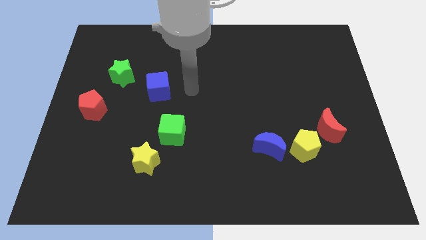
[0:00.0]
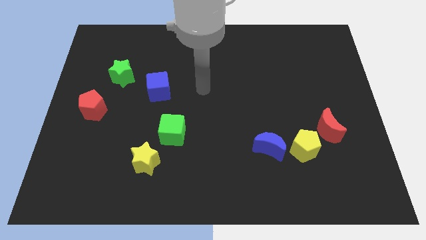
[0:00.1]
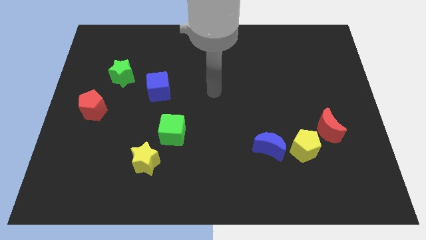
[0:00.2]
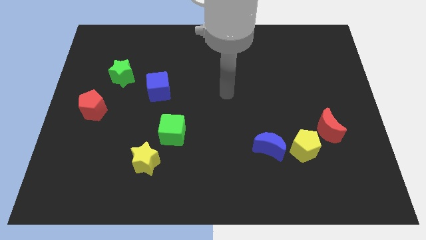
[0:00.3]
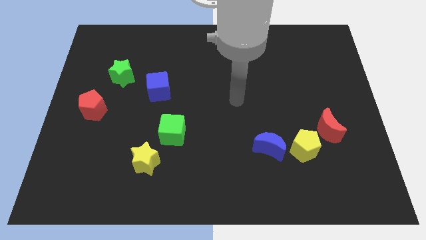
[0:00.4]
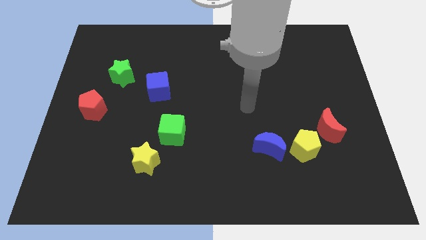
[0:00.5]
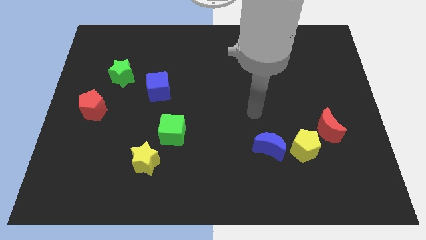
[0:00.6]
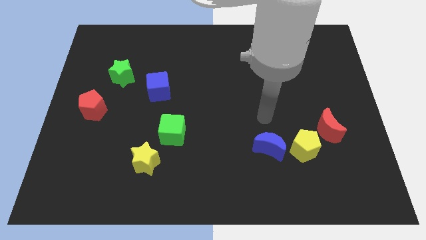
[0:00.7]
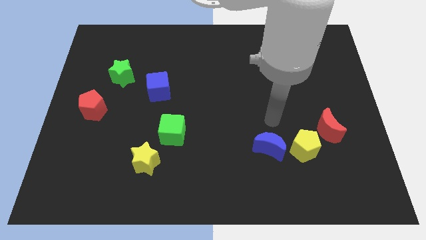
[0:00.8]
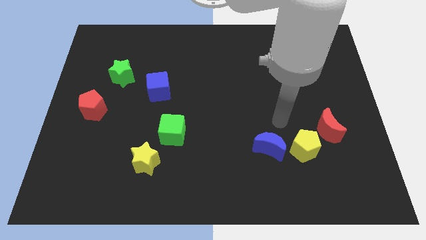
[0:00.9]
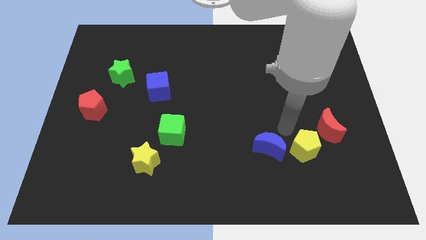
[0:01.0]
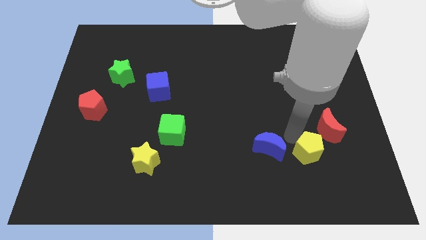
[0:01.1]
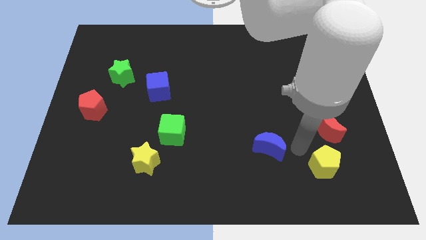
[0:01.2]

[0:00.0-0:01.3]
move the blue moon away from the yellow pentagon

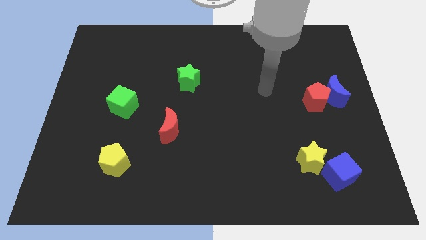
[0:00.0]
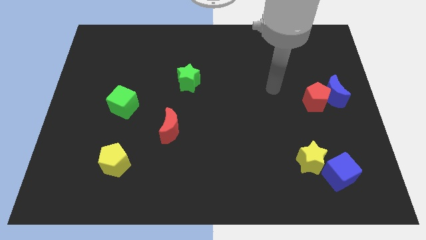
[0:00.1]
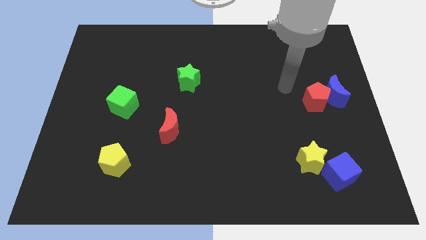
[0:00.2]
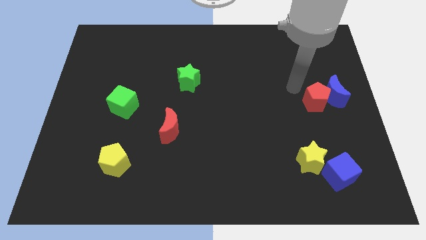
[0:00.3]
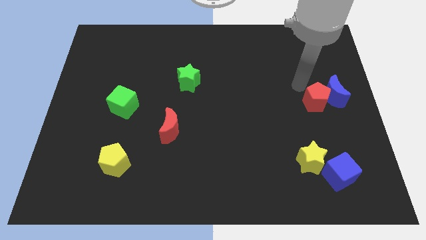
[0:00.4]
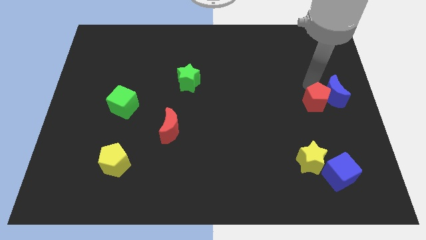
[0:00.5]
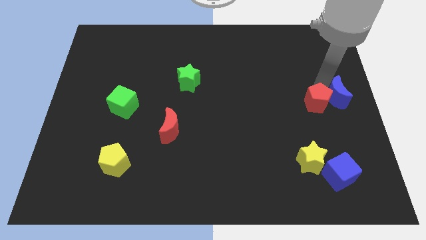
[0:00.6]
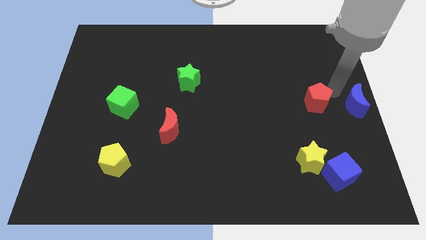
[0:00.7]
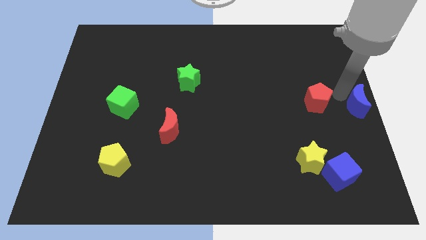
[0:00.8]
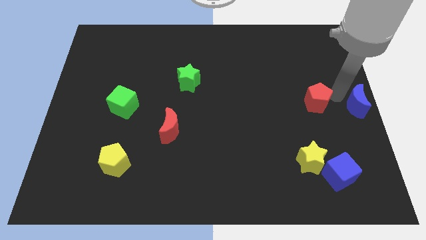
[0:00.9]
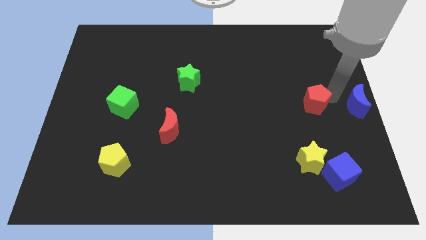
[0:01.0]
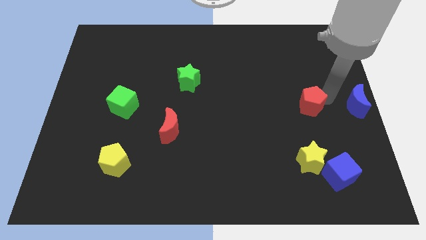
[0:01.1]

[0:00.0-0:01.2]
move the red pentagon away from the blue moon

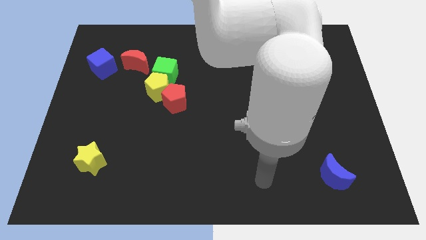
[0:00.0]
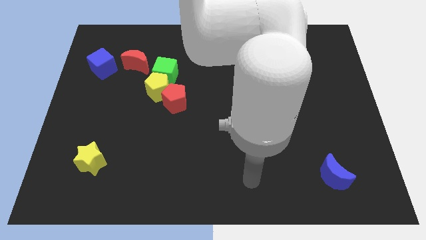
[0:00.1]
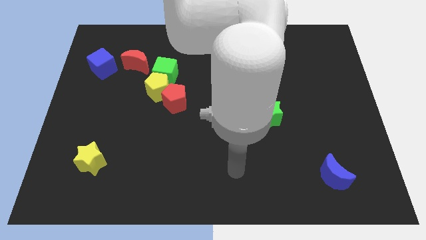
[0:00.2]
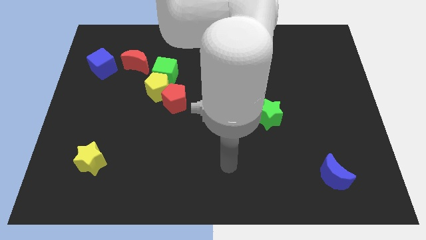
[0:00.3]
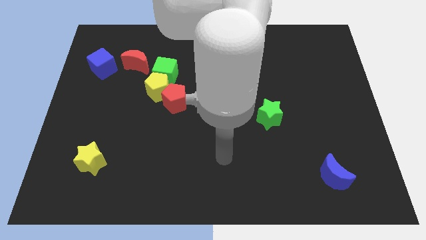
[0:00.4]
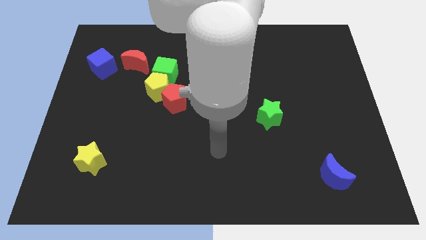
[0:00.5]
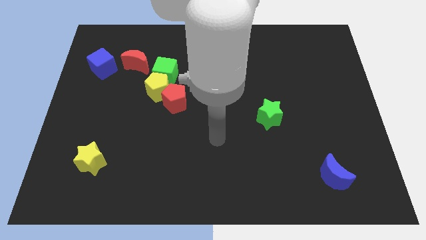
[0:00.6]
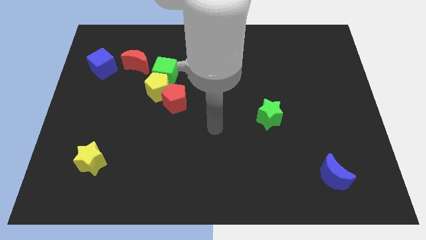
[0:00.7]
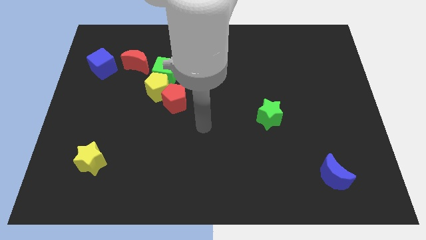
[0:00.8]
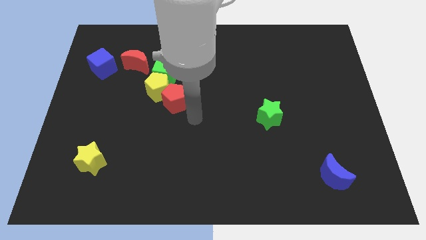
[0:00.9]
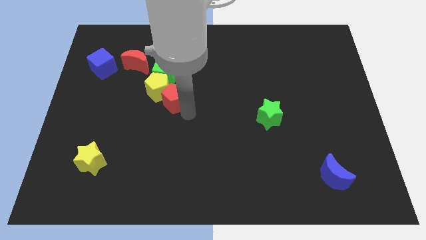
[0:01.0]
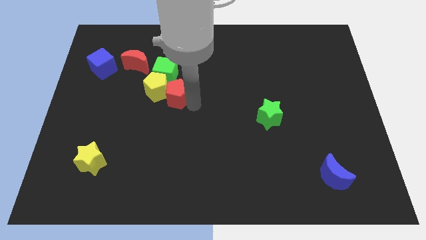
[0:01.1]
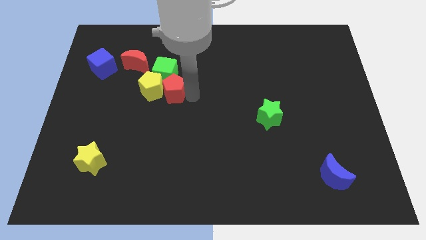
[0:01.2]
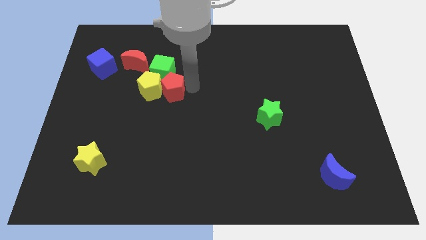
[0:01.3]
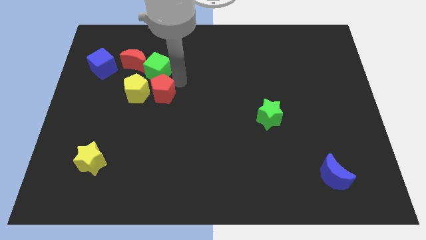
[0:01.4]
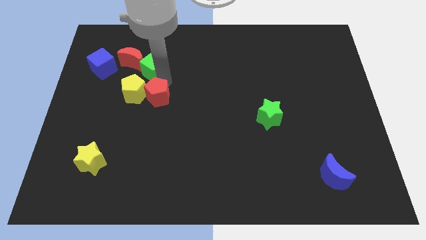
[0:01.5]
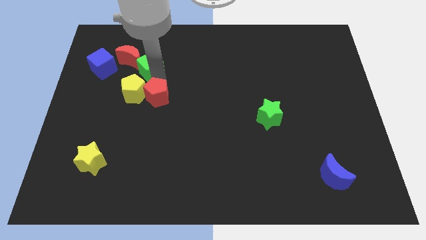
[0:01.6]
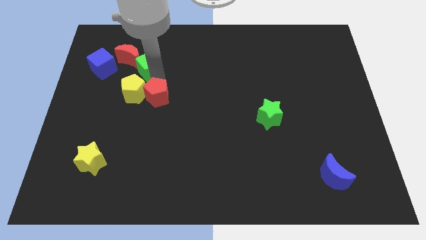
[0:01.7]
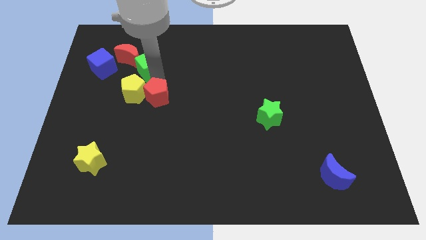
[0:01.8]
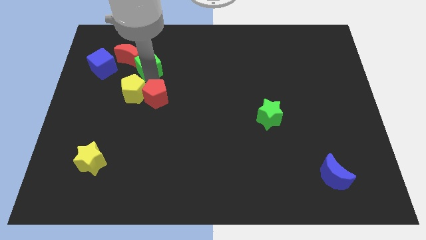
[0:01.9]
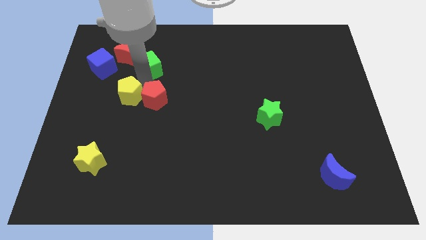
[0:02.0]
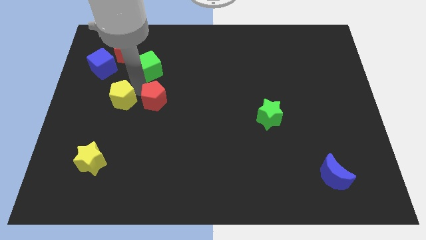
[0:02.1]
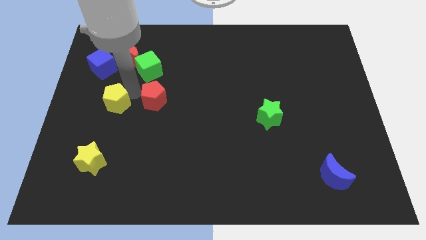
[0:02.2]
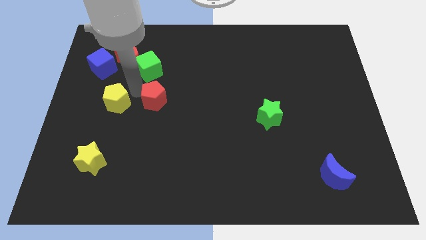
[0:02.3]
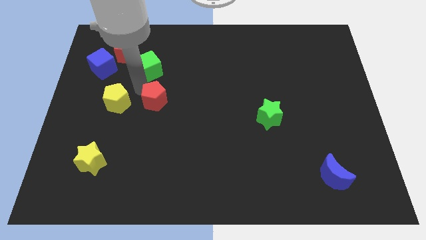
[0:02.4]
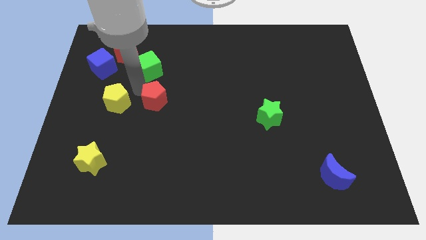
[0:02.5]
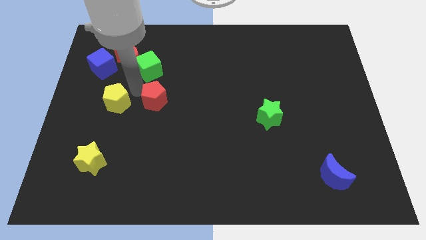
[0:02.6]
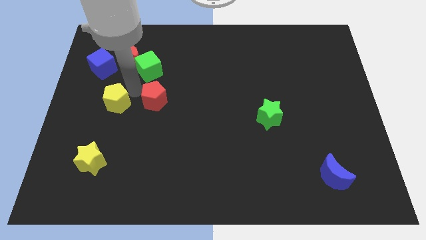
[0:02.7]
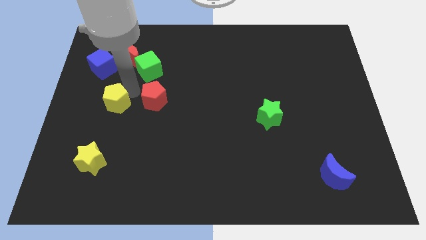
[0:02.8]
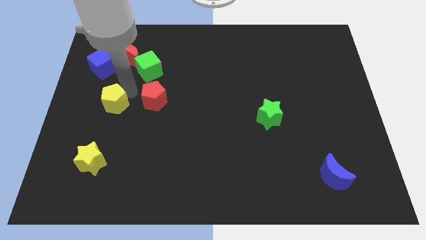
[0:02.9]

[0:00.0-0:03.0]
separate the yellow pentagon from the green cube and red pentagon

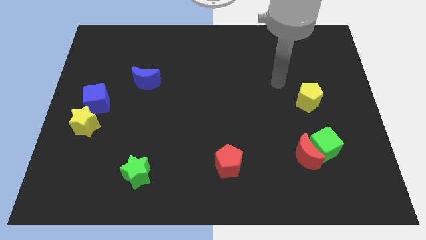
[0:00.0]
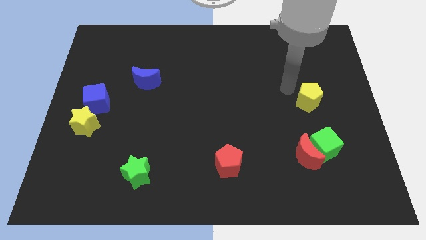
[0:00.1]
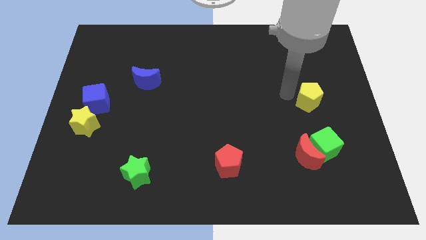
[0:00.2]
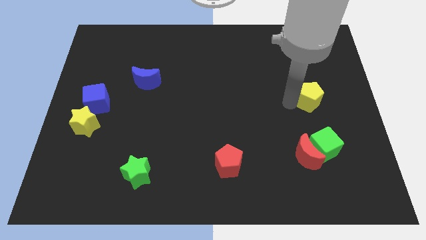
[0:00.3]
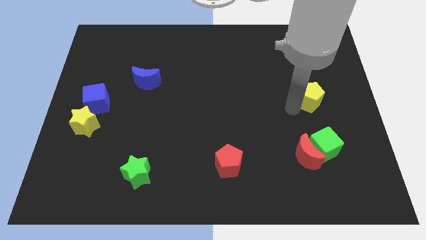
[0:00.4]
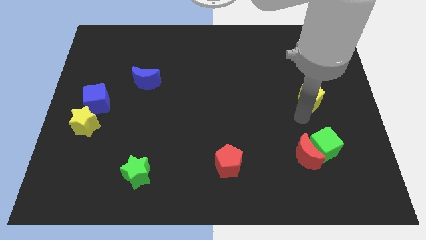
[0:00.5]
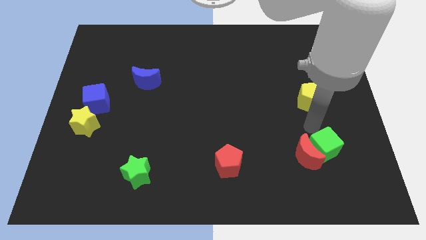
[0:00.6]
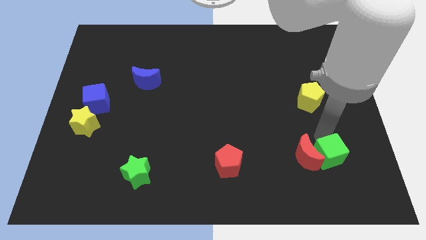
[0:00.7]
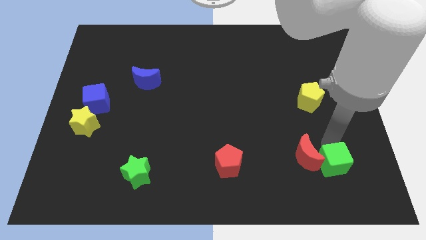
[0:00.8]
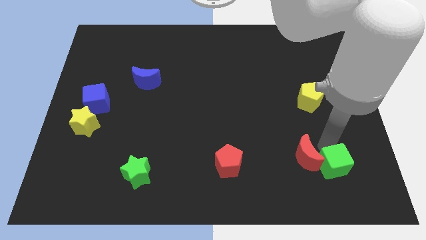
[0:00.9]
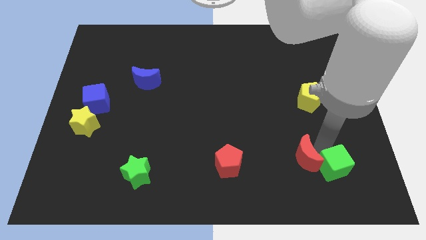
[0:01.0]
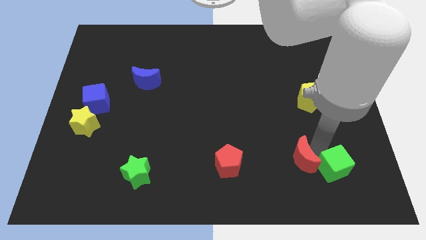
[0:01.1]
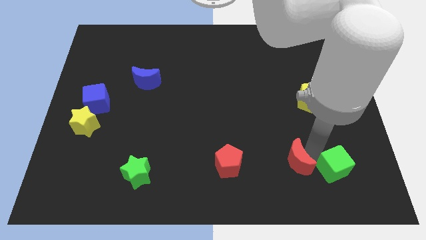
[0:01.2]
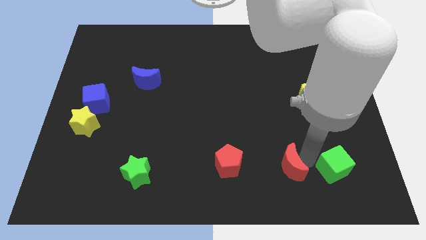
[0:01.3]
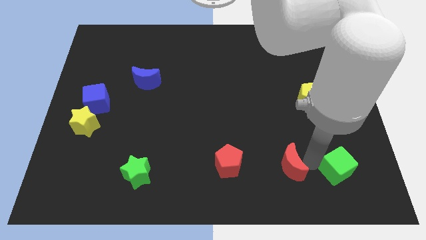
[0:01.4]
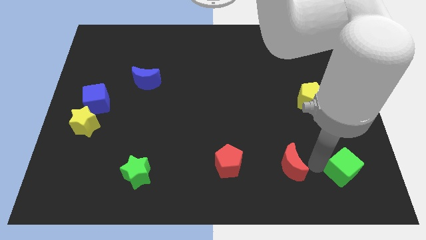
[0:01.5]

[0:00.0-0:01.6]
move the red moon away from the green cube

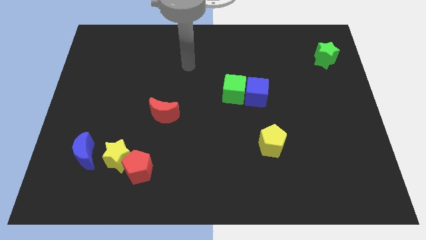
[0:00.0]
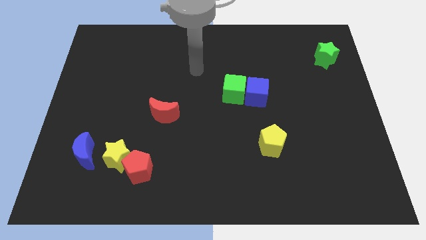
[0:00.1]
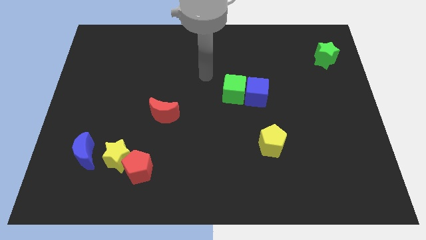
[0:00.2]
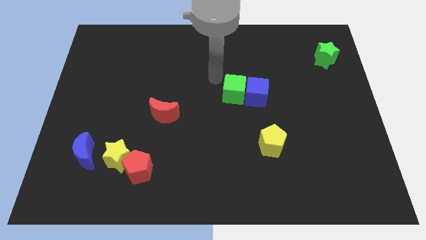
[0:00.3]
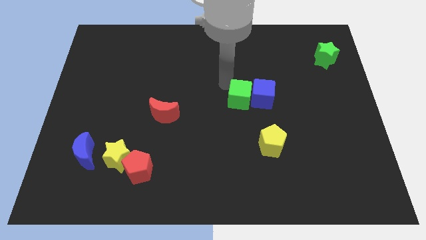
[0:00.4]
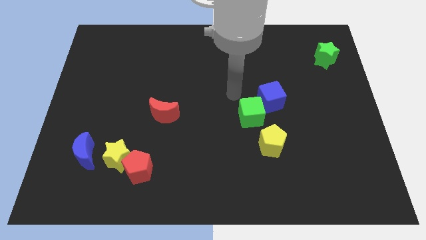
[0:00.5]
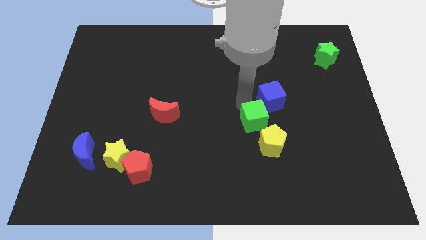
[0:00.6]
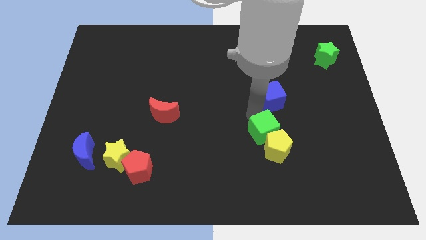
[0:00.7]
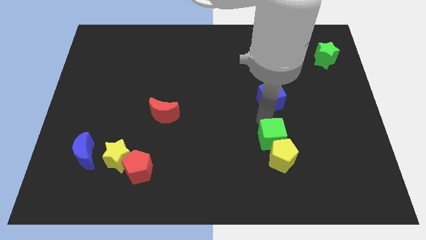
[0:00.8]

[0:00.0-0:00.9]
pull the blue cube apart from the green cube

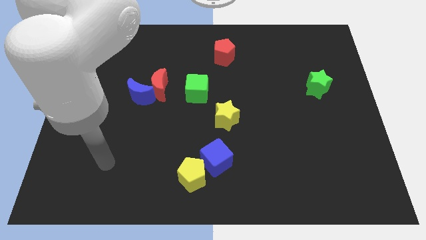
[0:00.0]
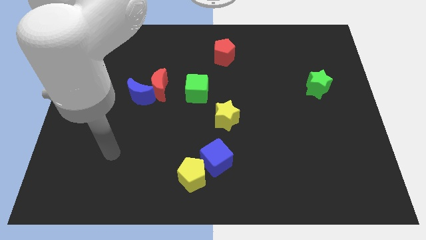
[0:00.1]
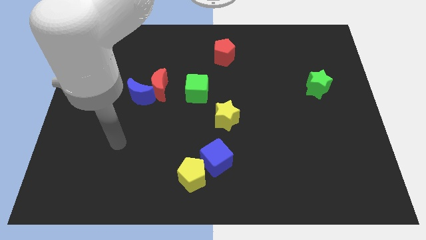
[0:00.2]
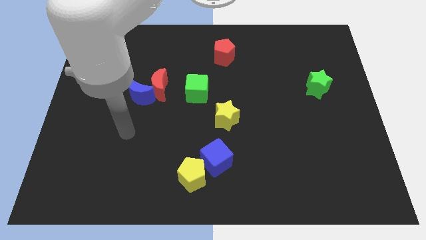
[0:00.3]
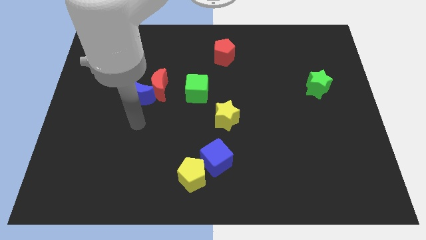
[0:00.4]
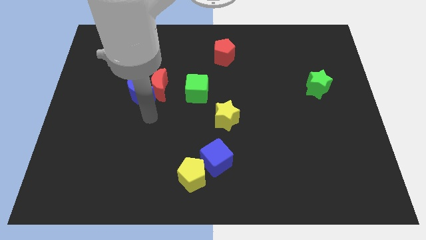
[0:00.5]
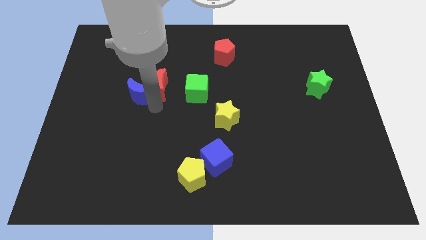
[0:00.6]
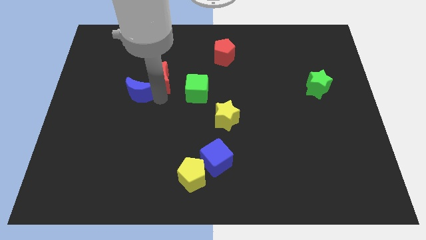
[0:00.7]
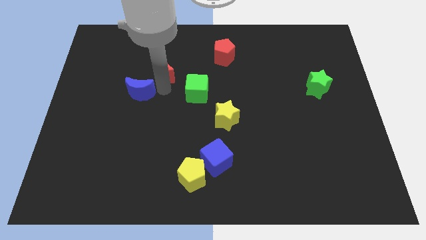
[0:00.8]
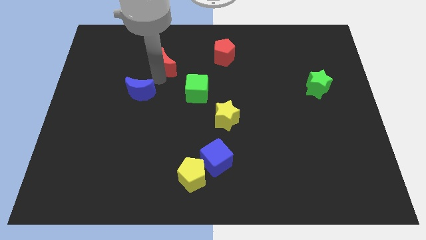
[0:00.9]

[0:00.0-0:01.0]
pull the blue moon apart from the red moon

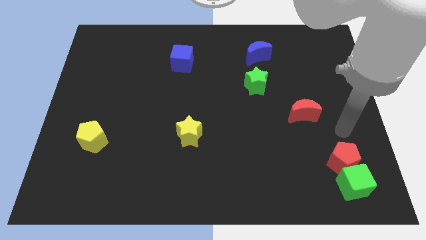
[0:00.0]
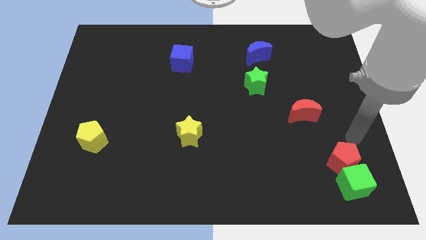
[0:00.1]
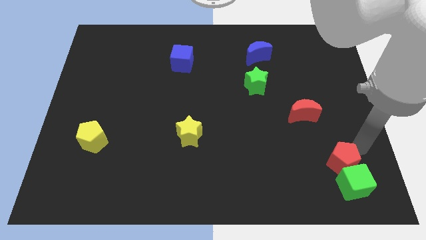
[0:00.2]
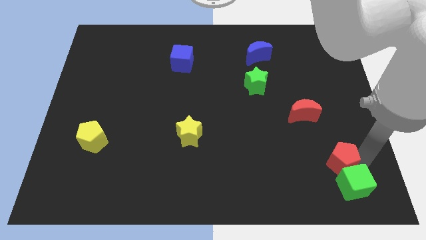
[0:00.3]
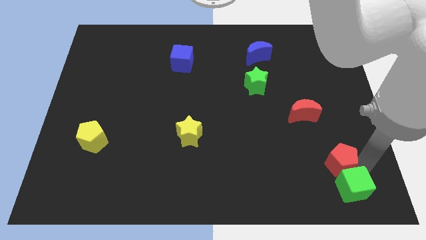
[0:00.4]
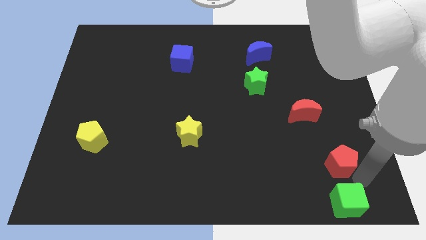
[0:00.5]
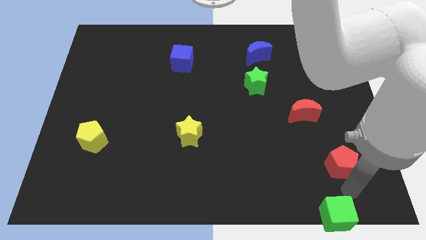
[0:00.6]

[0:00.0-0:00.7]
move the red pentagon away from the green cube
